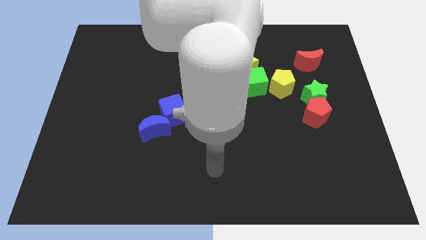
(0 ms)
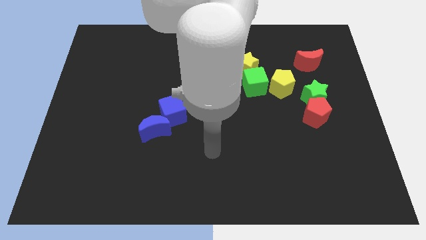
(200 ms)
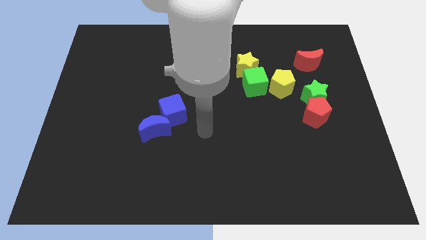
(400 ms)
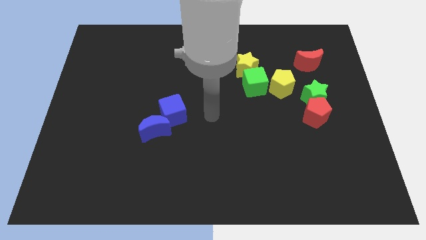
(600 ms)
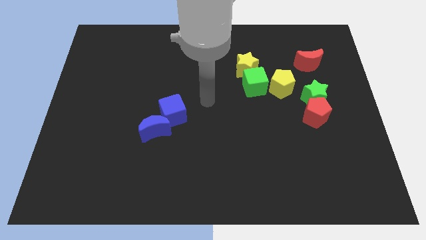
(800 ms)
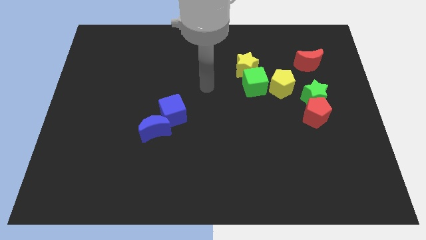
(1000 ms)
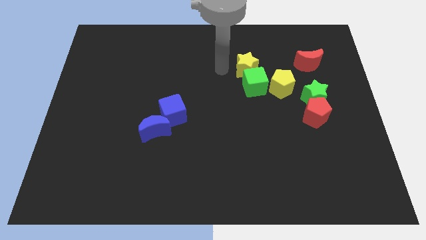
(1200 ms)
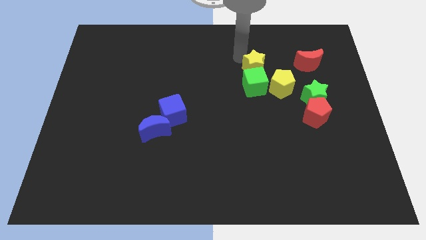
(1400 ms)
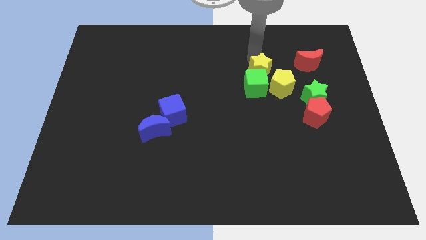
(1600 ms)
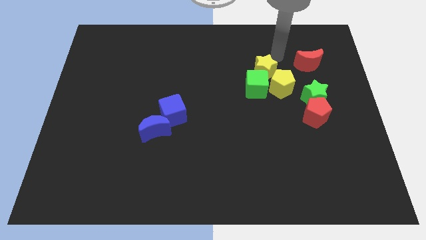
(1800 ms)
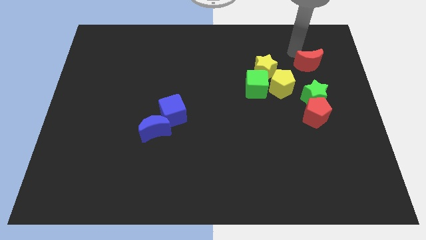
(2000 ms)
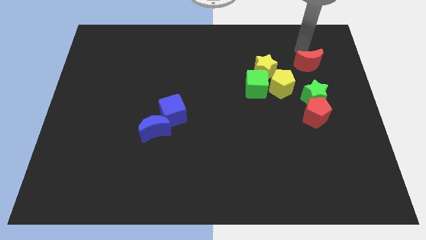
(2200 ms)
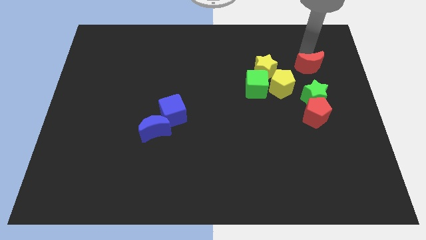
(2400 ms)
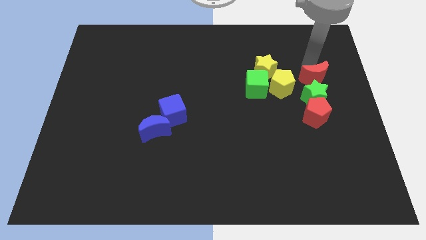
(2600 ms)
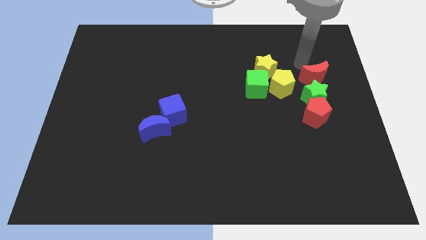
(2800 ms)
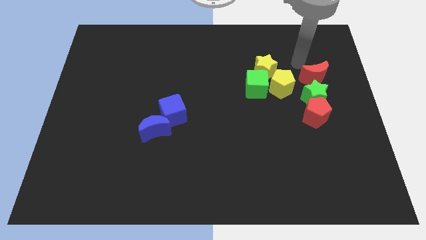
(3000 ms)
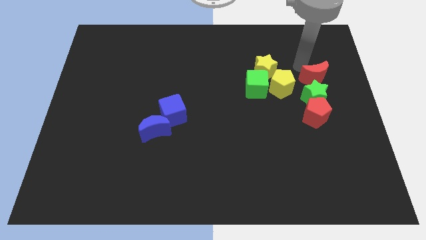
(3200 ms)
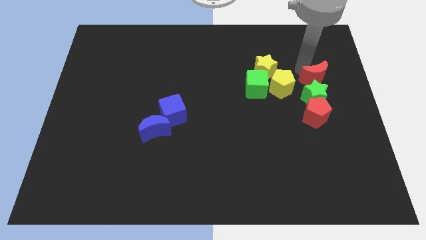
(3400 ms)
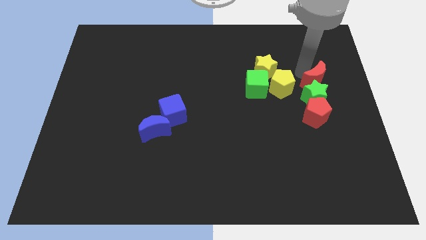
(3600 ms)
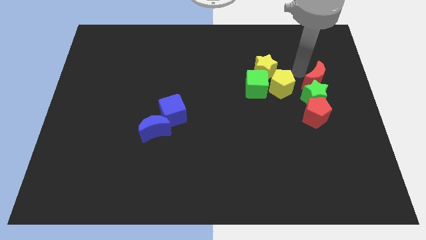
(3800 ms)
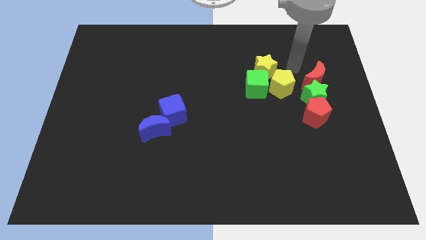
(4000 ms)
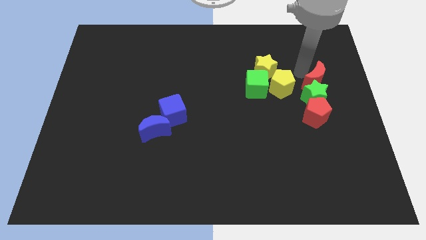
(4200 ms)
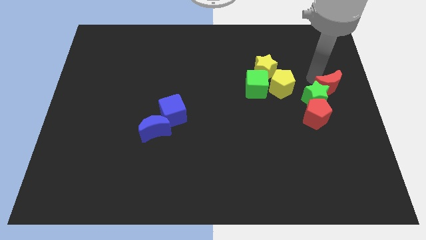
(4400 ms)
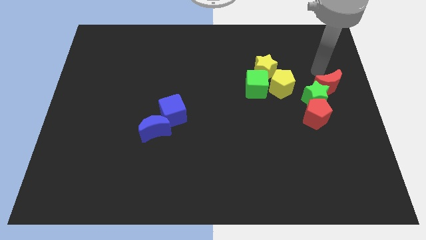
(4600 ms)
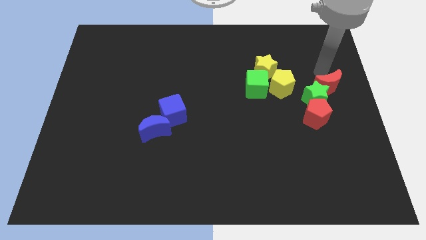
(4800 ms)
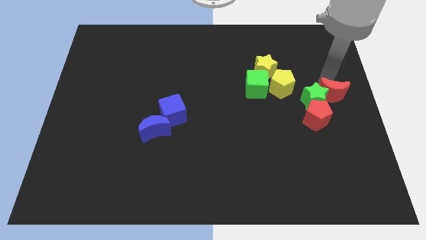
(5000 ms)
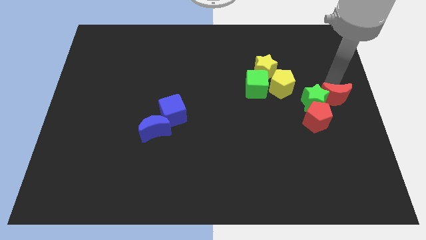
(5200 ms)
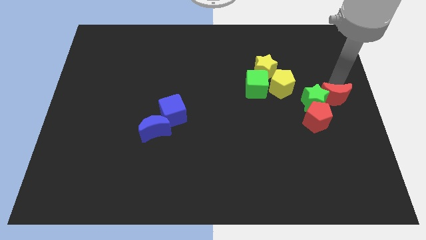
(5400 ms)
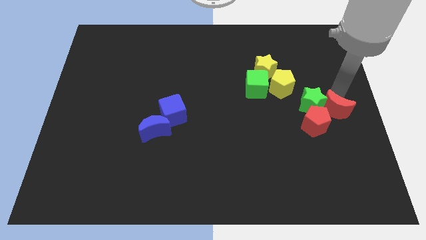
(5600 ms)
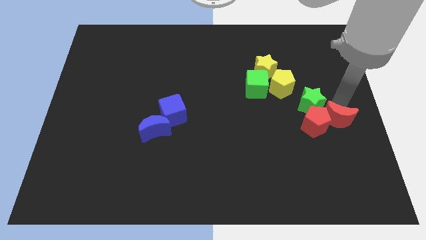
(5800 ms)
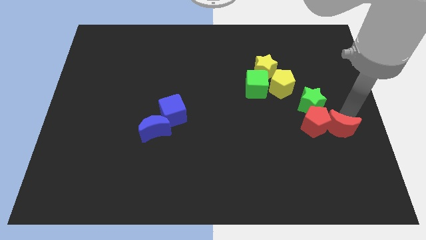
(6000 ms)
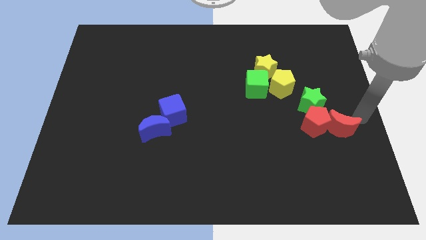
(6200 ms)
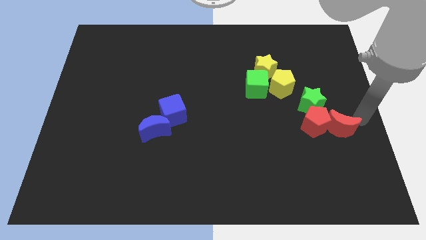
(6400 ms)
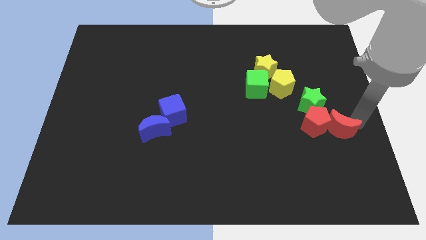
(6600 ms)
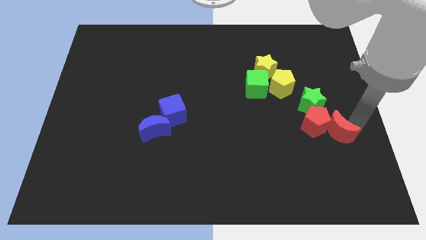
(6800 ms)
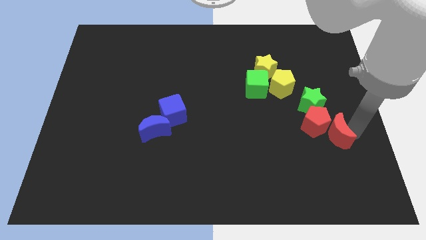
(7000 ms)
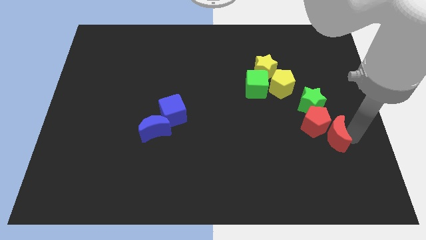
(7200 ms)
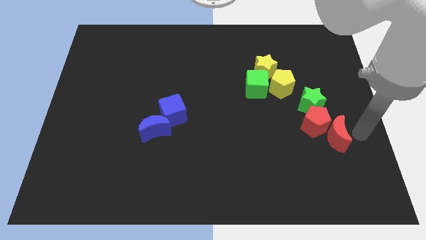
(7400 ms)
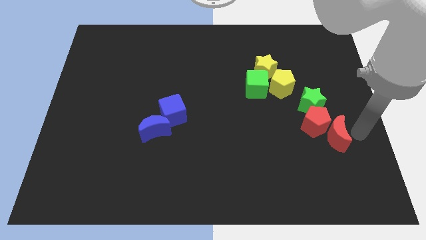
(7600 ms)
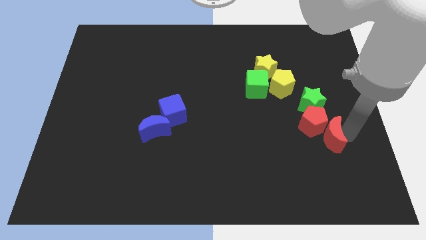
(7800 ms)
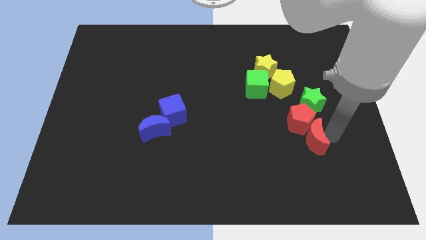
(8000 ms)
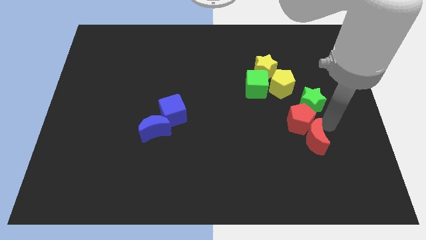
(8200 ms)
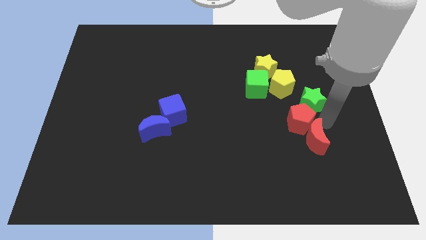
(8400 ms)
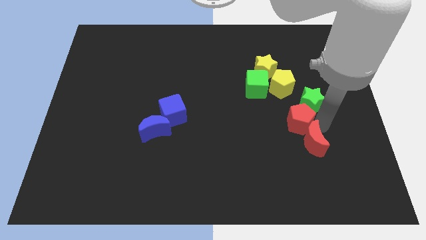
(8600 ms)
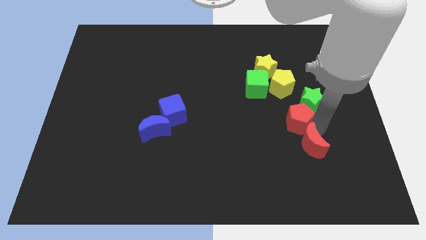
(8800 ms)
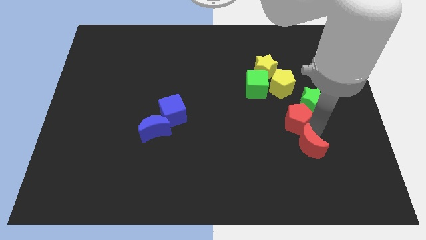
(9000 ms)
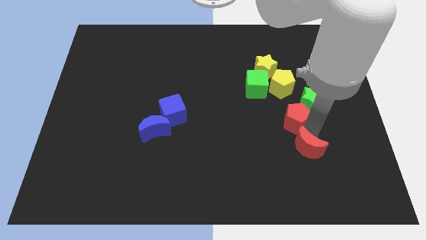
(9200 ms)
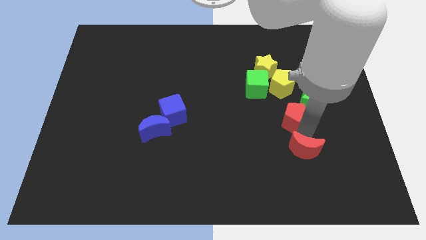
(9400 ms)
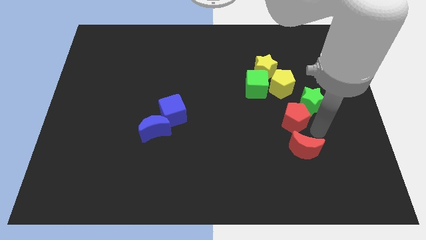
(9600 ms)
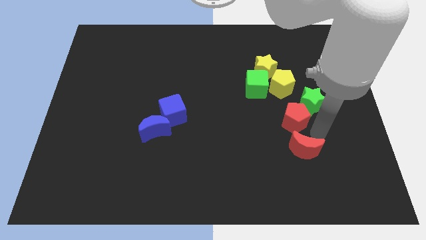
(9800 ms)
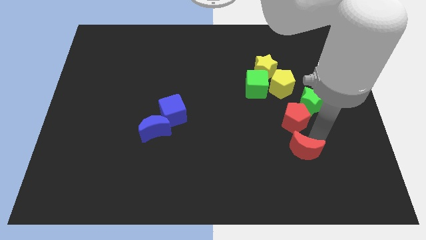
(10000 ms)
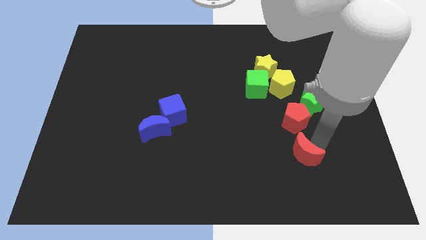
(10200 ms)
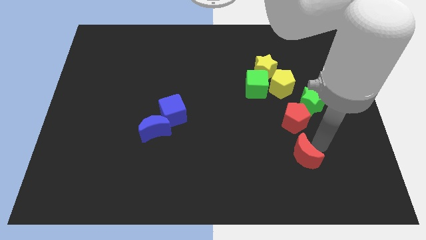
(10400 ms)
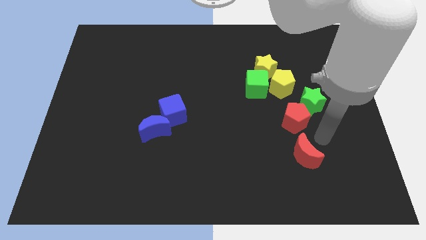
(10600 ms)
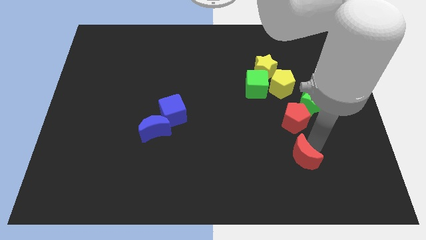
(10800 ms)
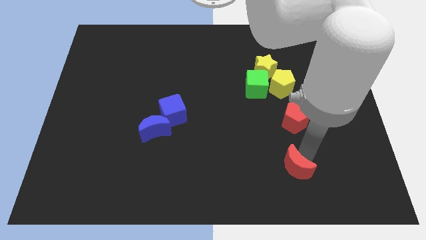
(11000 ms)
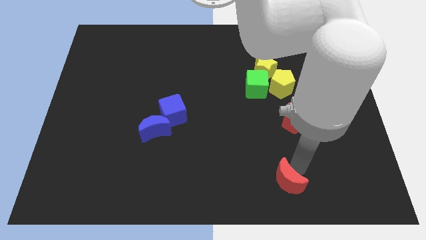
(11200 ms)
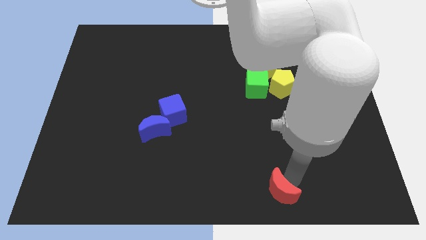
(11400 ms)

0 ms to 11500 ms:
move the red moon to the bottom

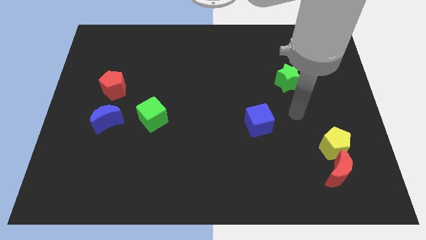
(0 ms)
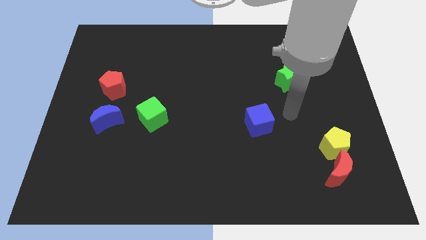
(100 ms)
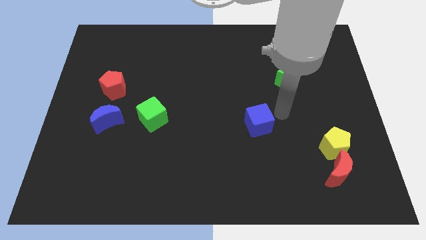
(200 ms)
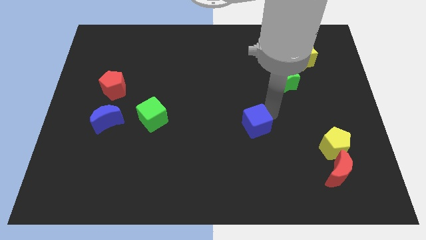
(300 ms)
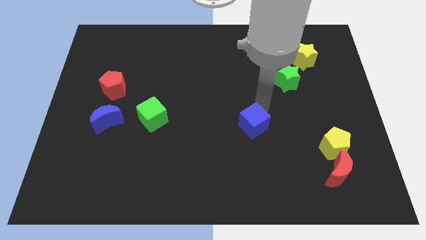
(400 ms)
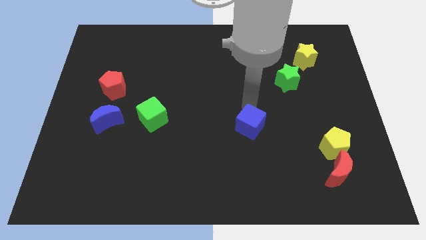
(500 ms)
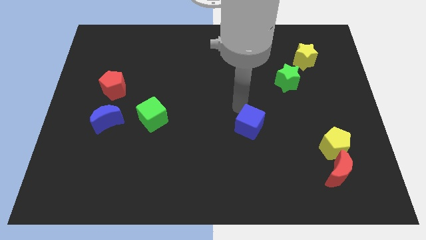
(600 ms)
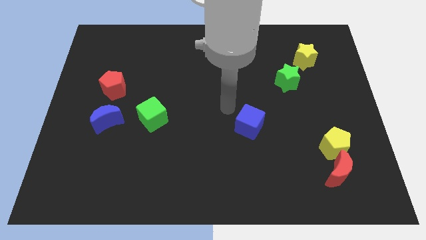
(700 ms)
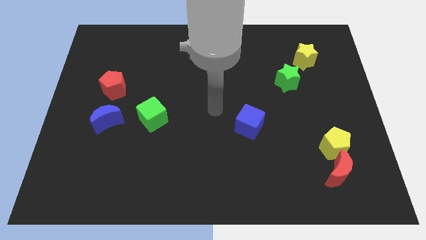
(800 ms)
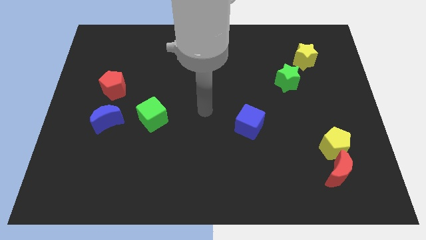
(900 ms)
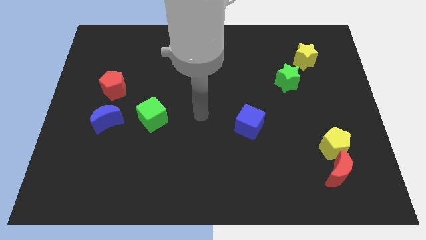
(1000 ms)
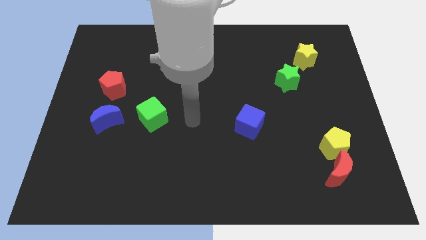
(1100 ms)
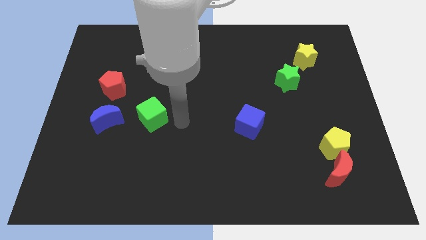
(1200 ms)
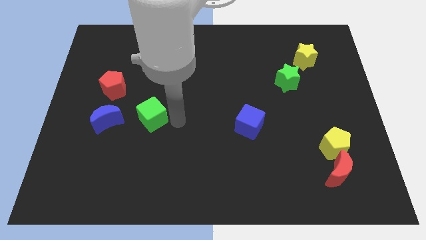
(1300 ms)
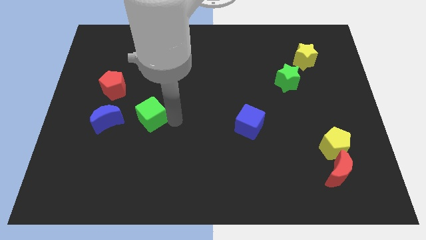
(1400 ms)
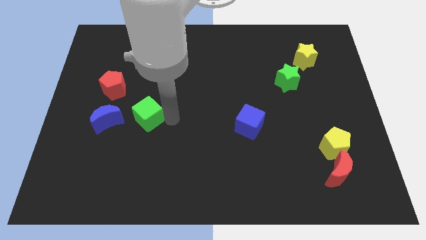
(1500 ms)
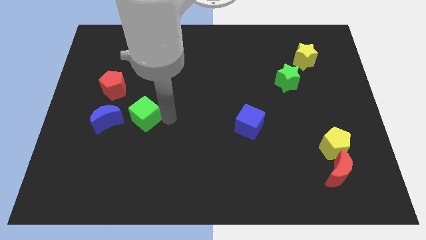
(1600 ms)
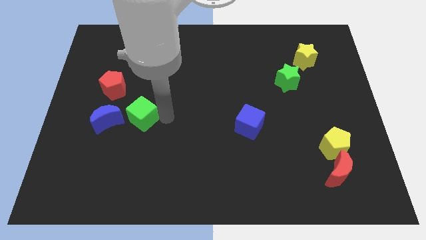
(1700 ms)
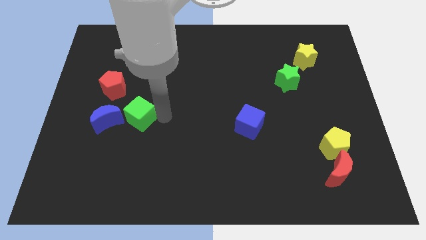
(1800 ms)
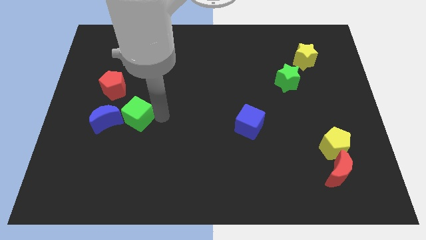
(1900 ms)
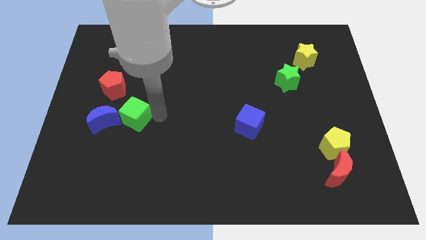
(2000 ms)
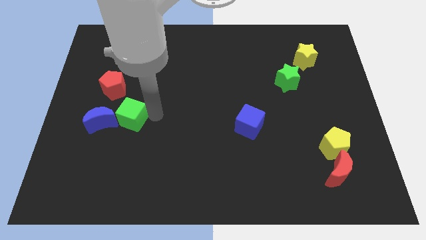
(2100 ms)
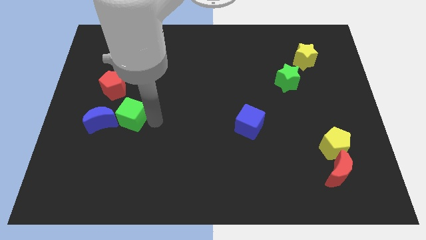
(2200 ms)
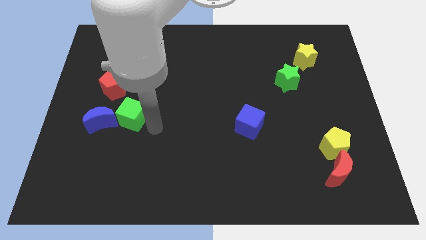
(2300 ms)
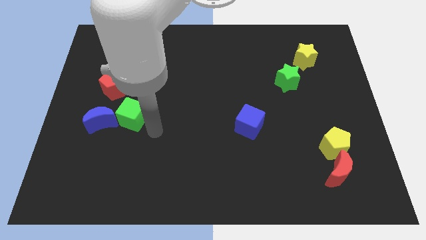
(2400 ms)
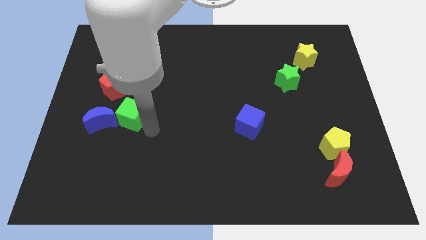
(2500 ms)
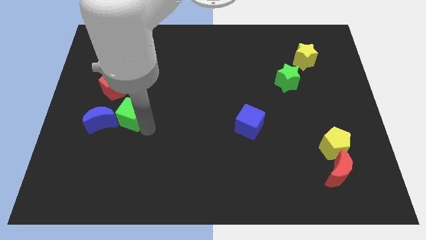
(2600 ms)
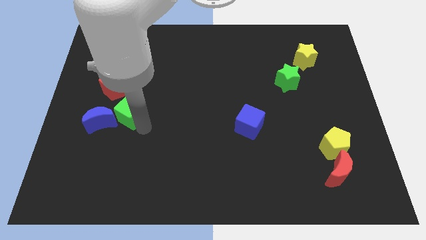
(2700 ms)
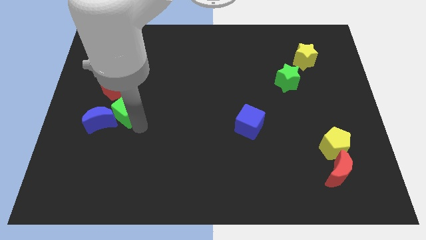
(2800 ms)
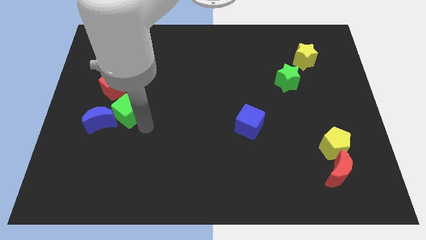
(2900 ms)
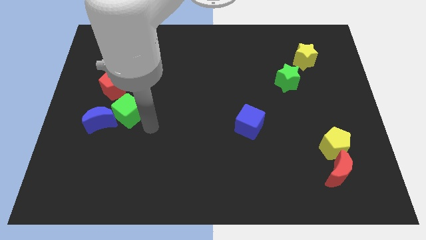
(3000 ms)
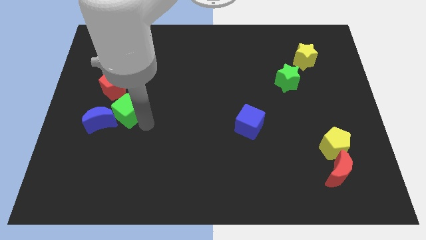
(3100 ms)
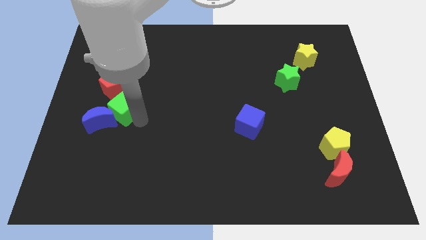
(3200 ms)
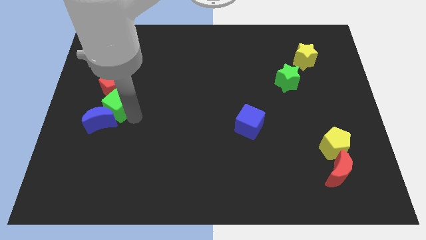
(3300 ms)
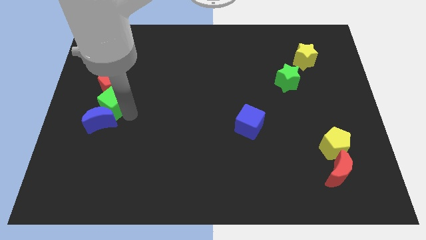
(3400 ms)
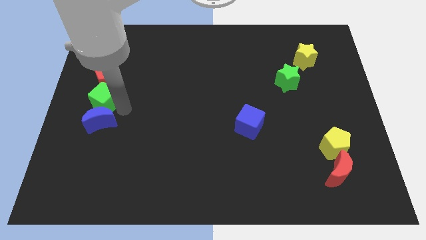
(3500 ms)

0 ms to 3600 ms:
push the green cube to the left side of the board
